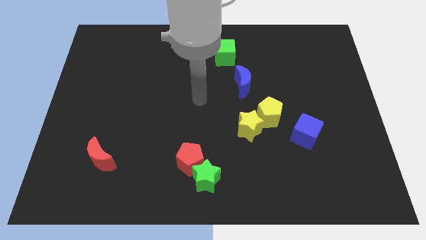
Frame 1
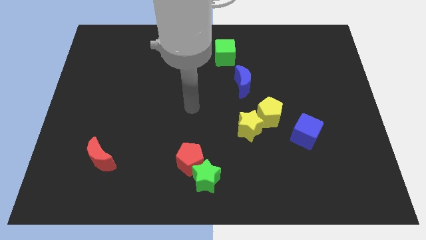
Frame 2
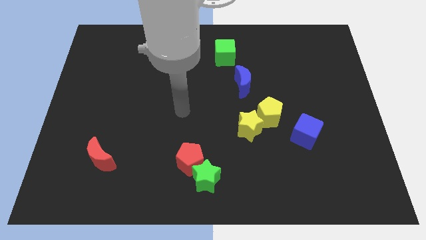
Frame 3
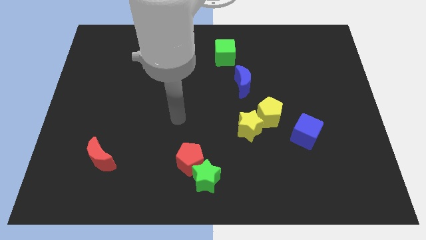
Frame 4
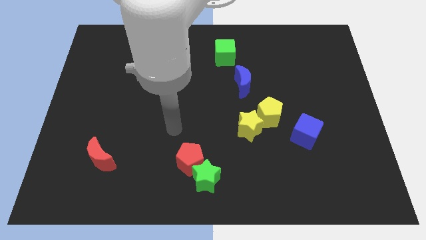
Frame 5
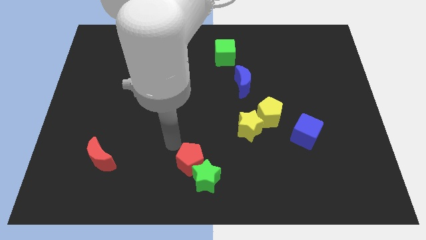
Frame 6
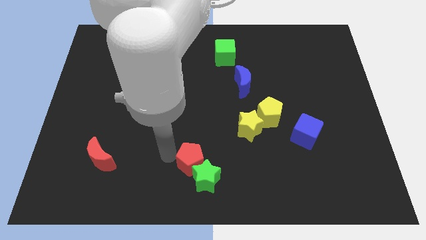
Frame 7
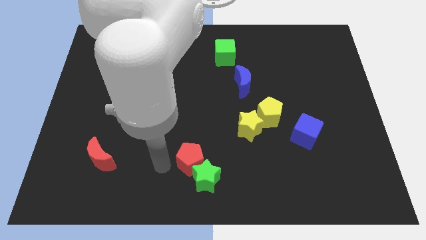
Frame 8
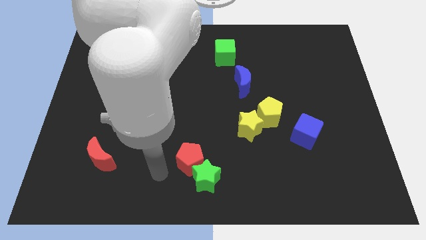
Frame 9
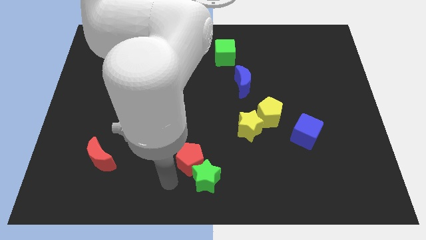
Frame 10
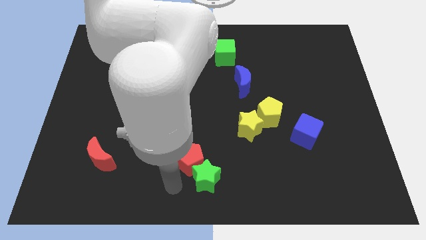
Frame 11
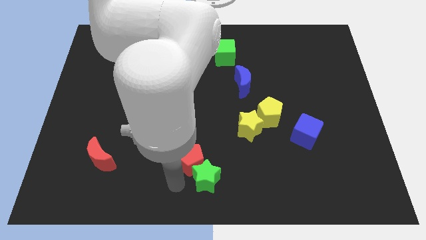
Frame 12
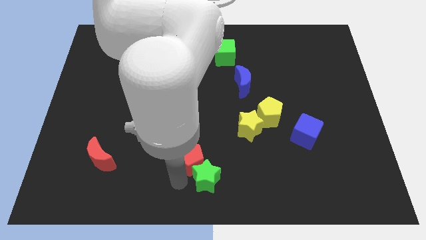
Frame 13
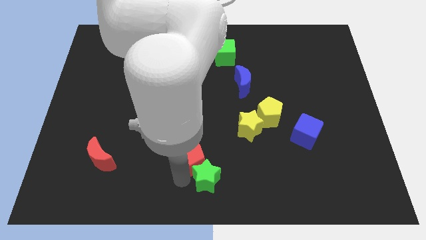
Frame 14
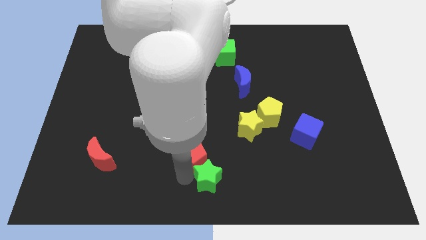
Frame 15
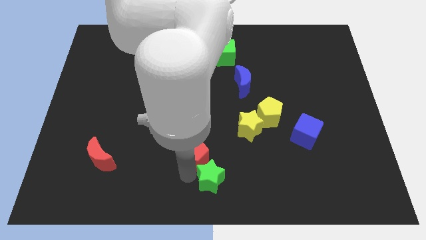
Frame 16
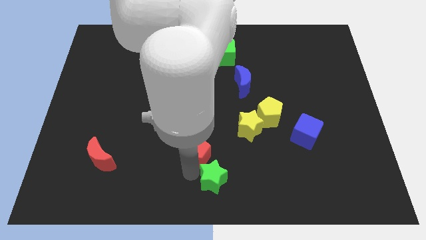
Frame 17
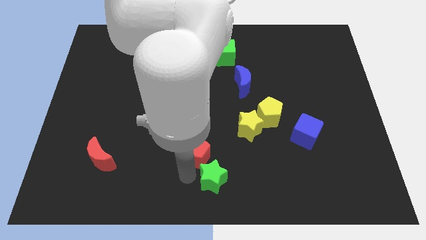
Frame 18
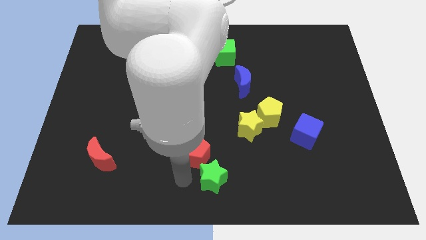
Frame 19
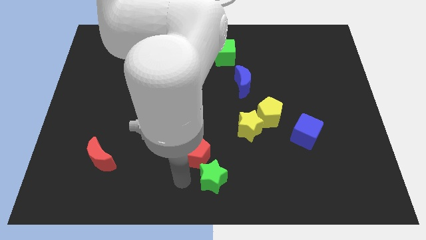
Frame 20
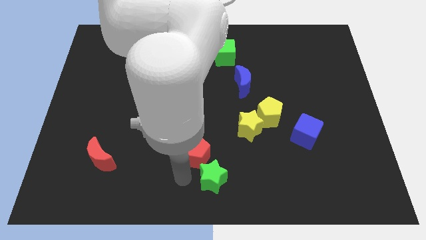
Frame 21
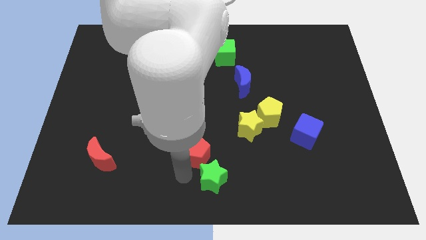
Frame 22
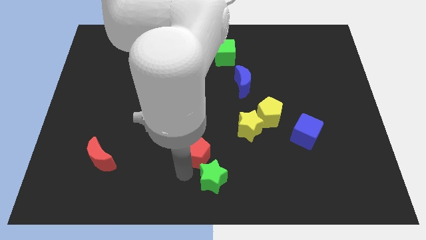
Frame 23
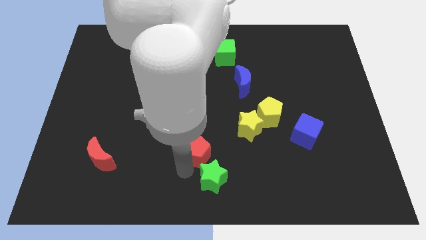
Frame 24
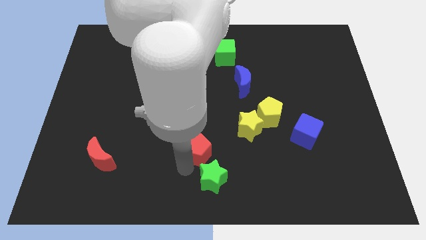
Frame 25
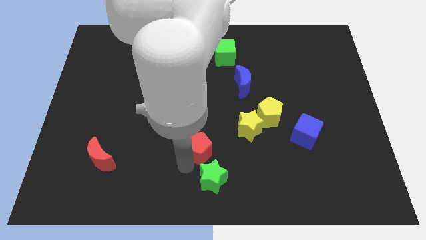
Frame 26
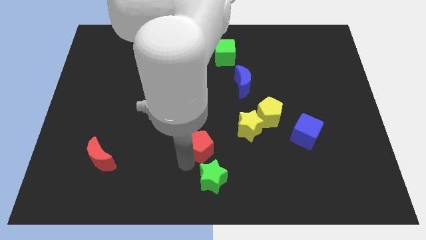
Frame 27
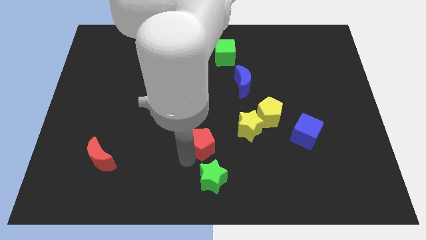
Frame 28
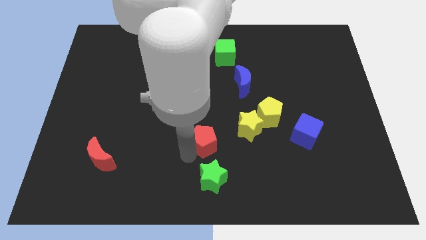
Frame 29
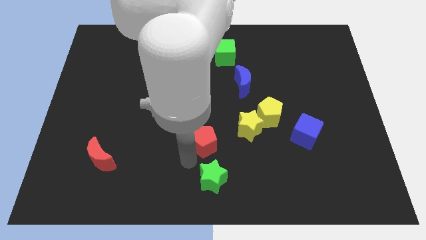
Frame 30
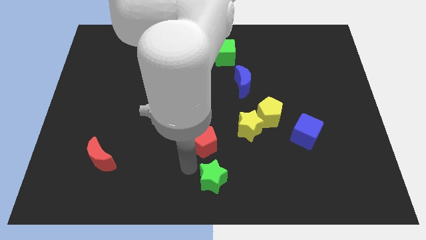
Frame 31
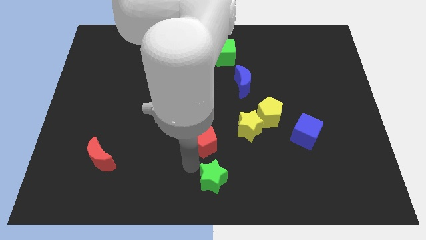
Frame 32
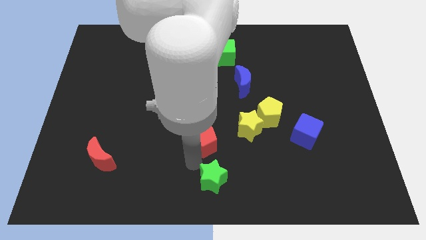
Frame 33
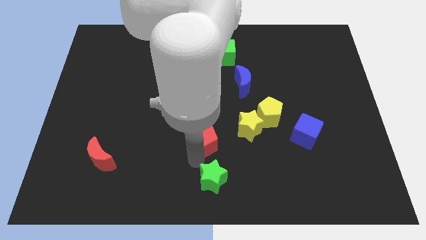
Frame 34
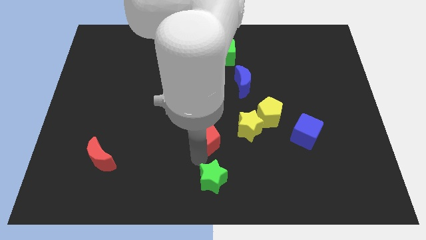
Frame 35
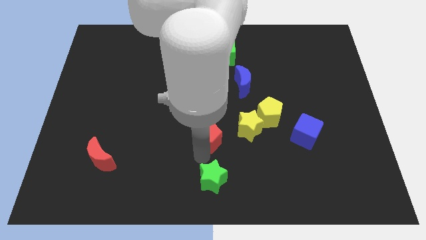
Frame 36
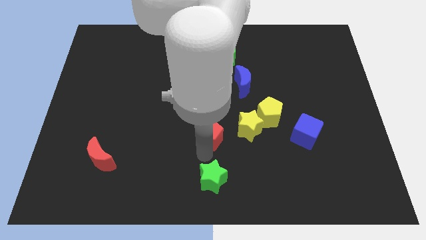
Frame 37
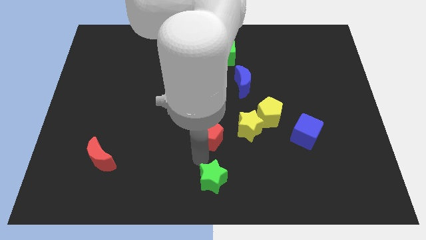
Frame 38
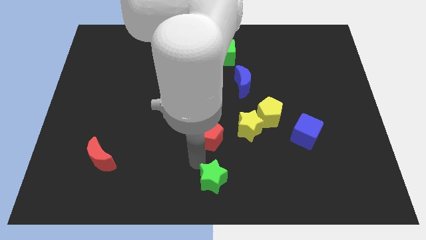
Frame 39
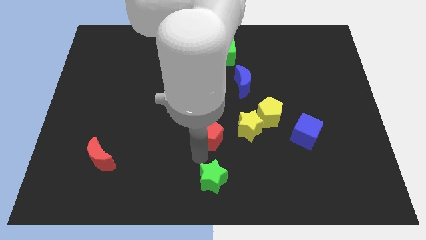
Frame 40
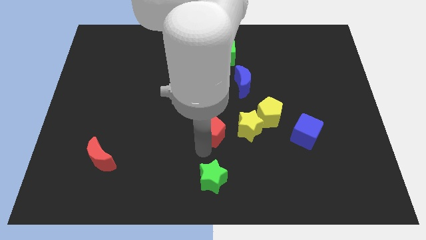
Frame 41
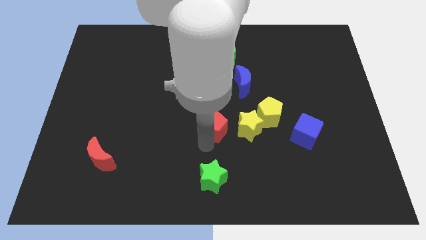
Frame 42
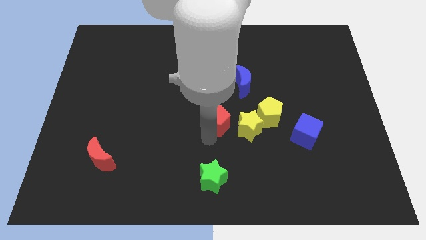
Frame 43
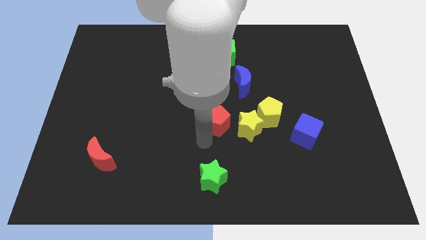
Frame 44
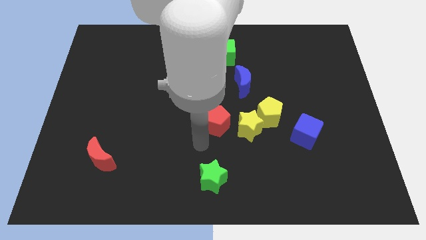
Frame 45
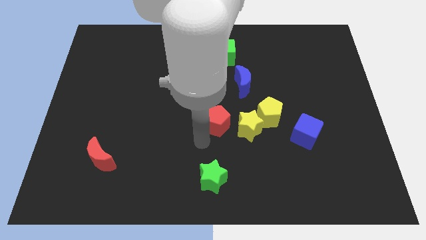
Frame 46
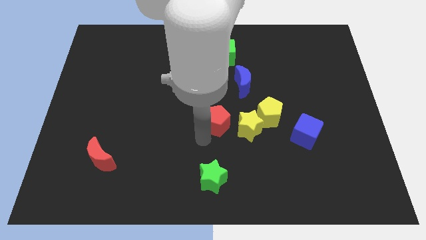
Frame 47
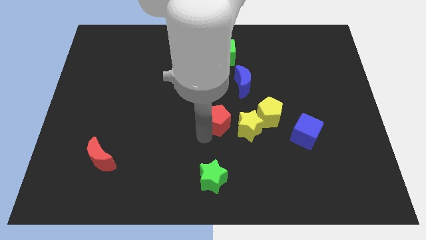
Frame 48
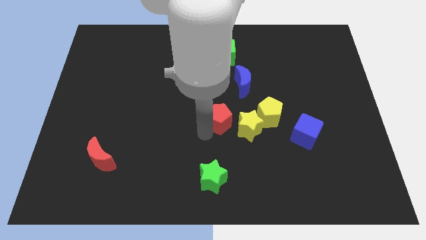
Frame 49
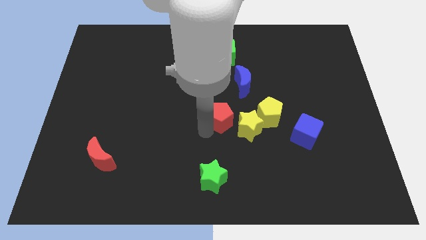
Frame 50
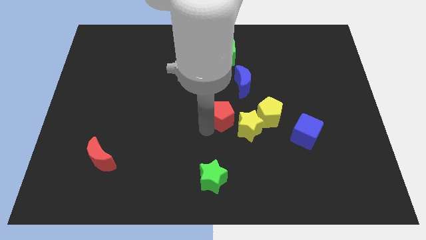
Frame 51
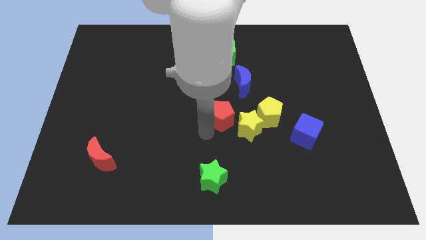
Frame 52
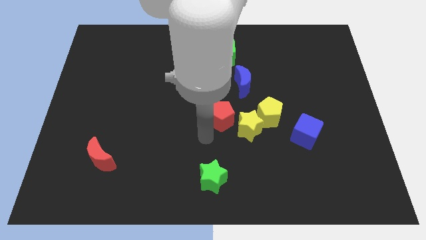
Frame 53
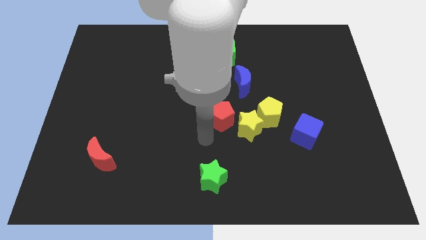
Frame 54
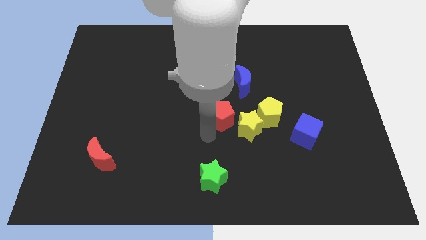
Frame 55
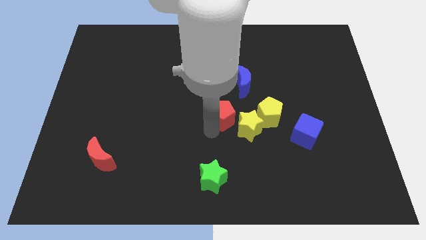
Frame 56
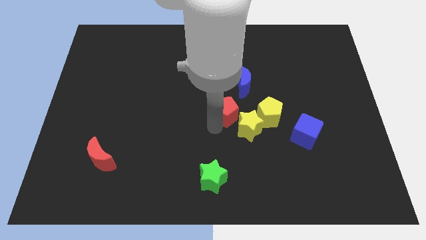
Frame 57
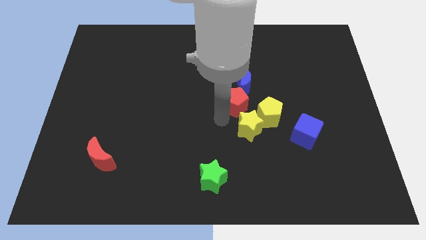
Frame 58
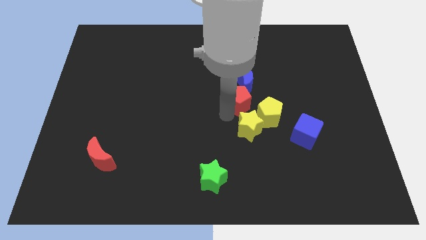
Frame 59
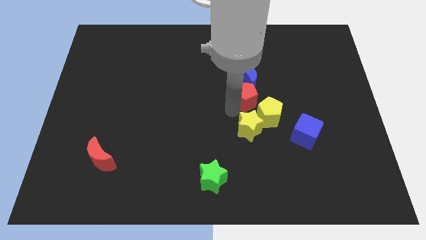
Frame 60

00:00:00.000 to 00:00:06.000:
put the red pentagon close to the blue moon

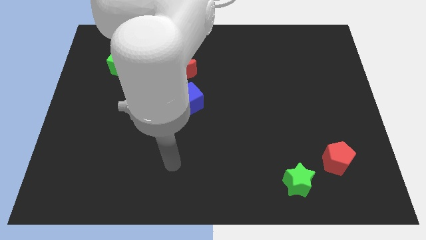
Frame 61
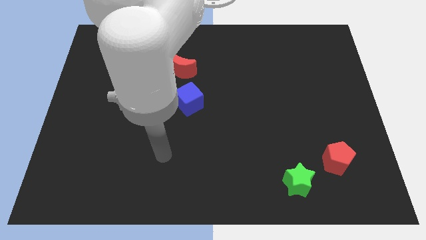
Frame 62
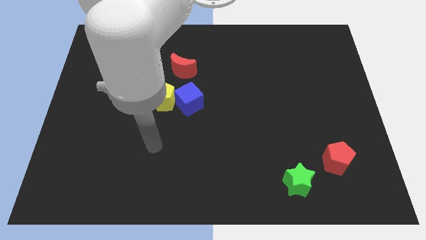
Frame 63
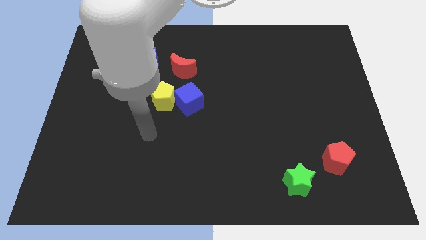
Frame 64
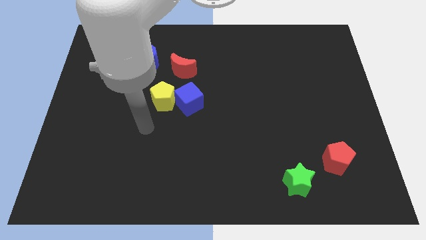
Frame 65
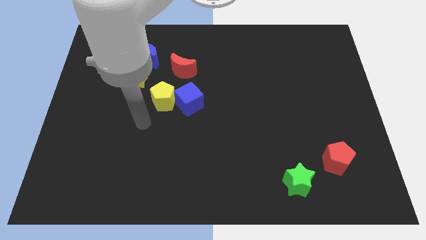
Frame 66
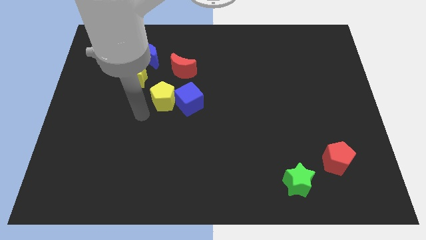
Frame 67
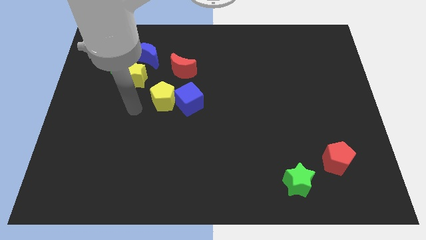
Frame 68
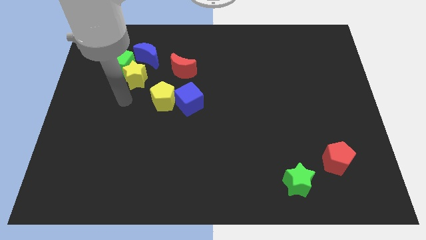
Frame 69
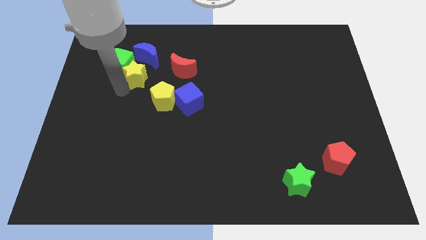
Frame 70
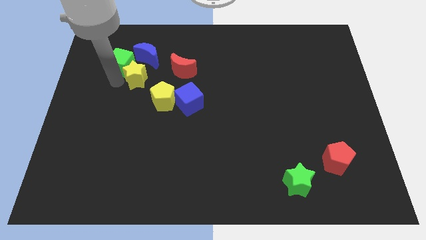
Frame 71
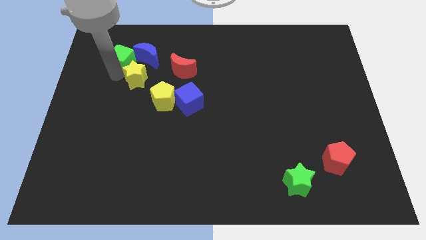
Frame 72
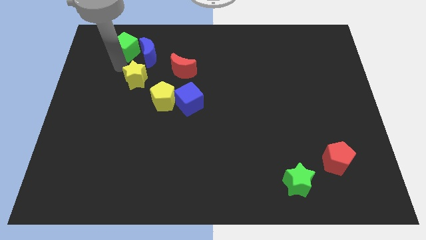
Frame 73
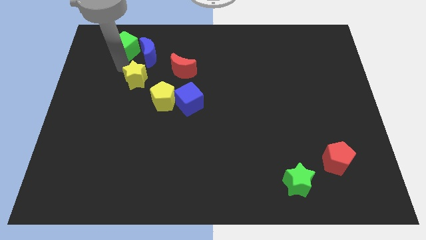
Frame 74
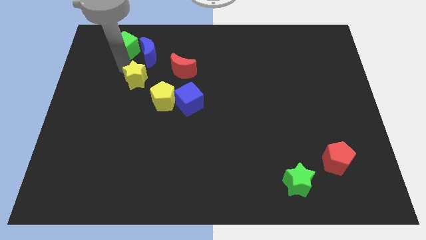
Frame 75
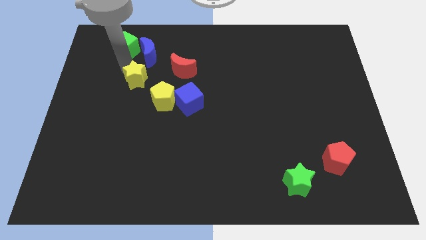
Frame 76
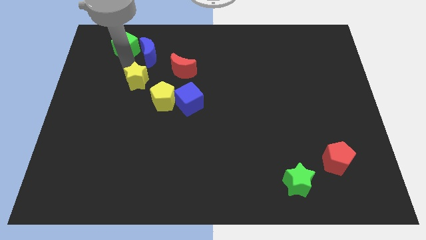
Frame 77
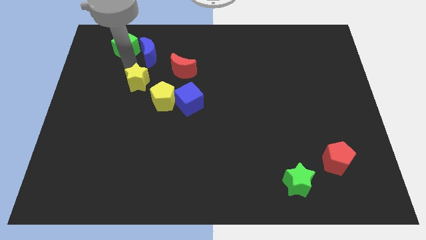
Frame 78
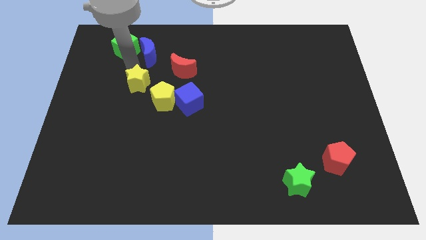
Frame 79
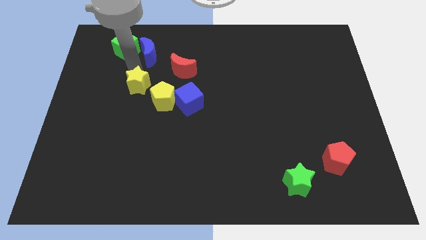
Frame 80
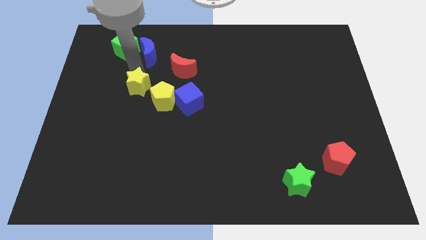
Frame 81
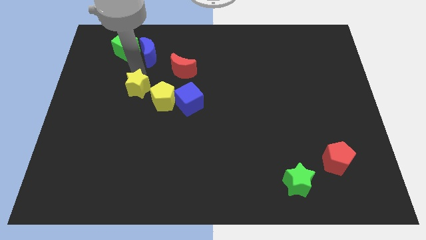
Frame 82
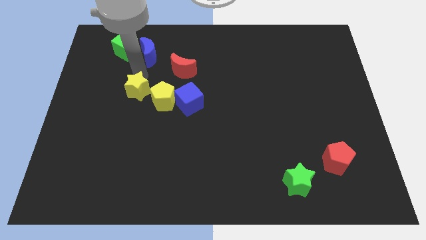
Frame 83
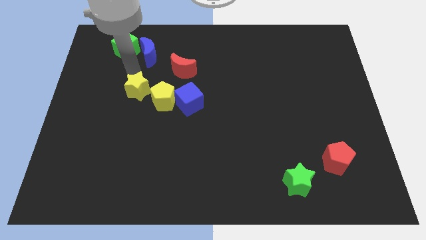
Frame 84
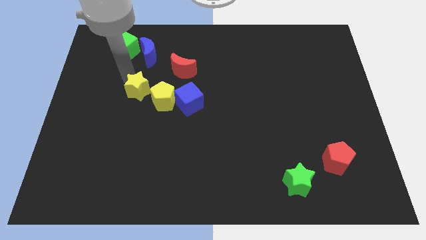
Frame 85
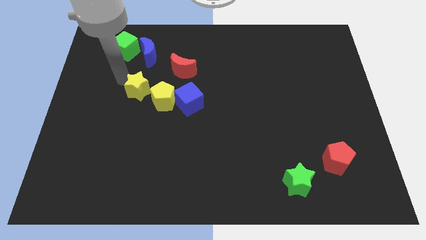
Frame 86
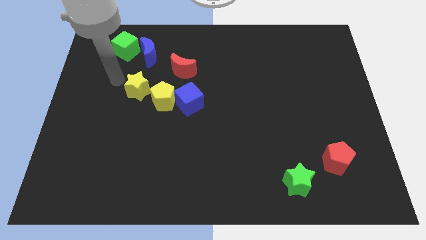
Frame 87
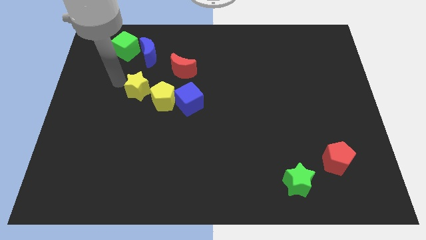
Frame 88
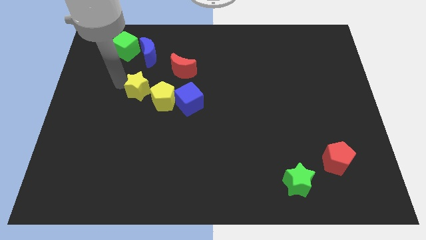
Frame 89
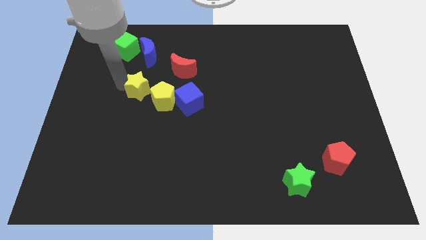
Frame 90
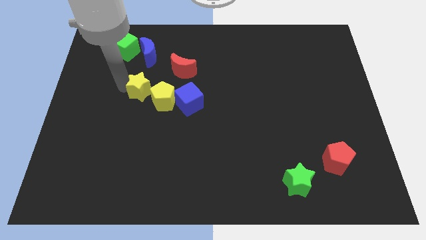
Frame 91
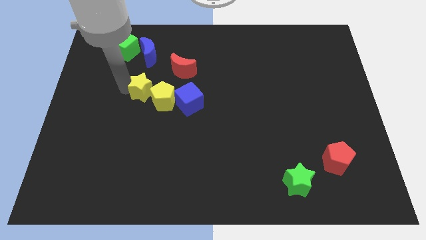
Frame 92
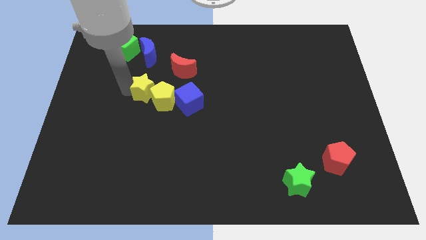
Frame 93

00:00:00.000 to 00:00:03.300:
move the yellow star to the yellow pentagon
